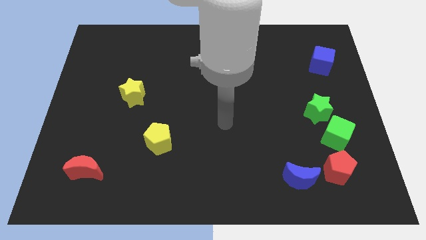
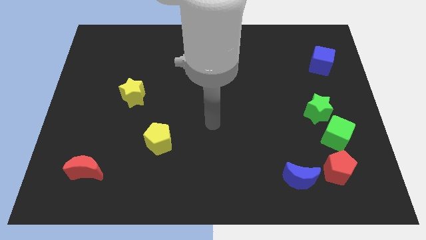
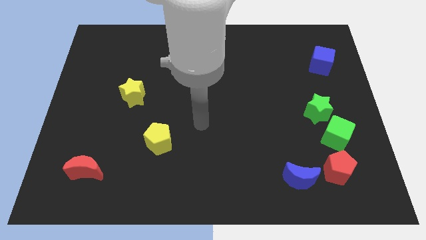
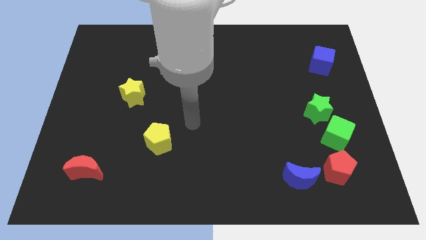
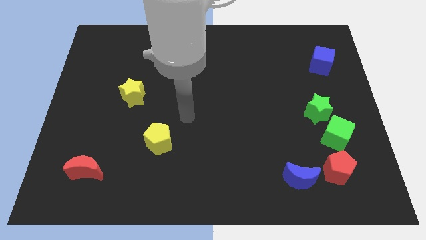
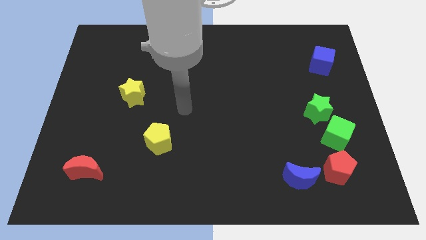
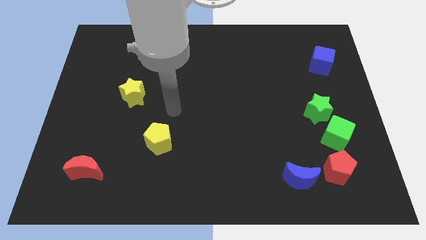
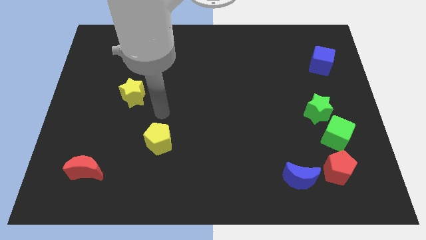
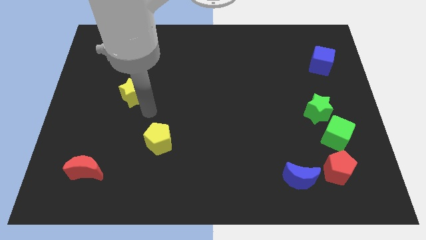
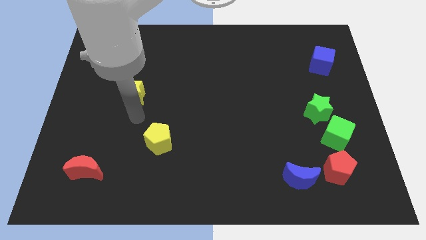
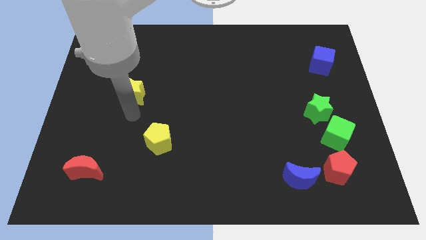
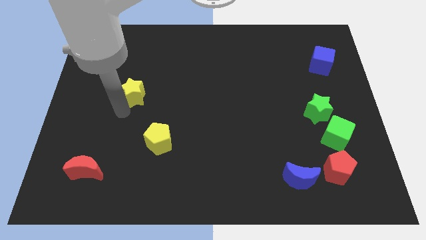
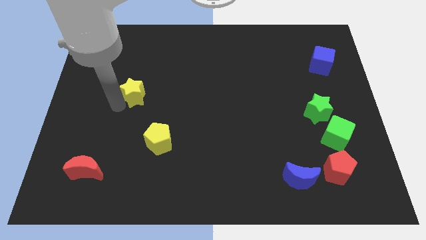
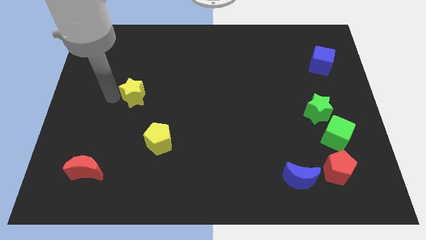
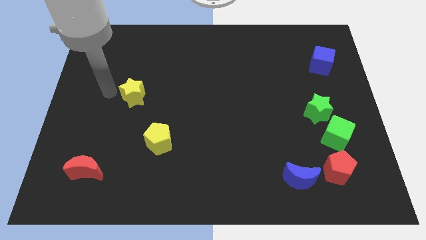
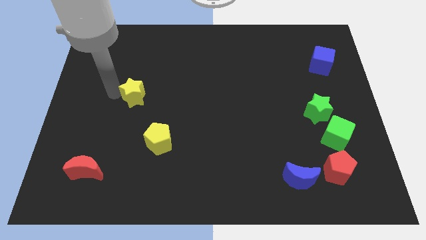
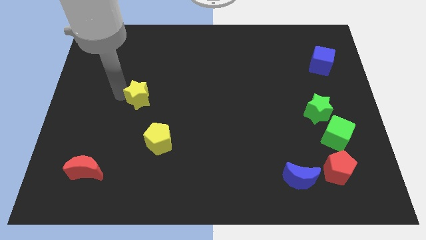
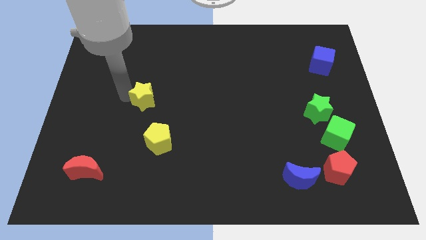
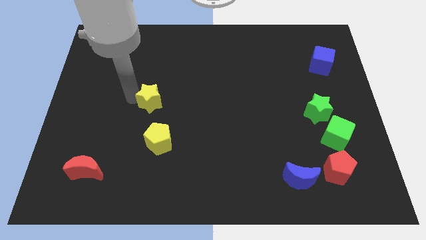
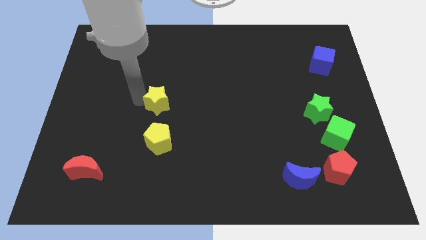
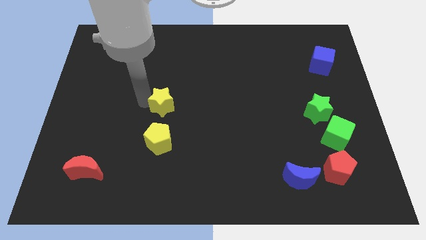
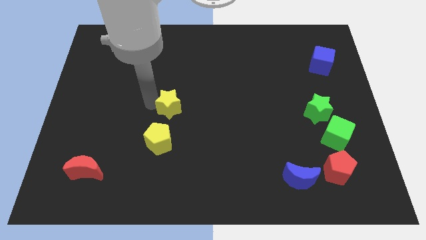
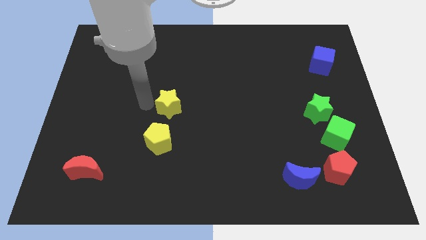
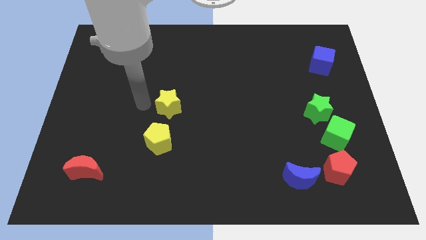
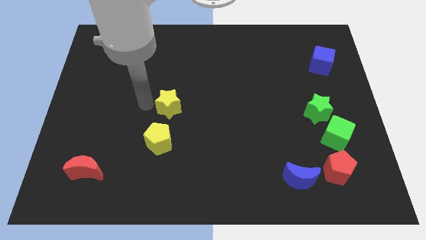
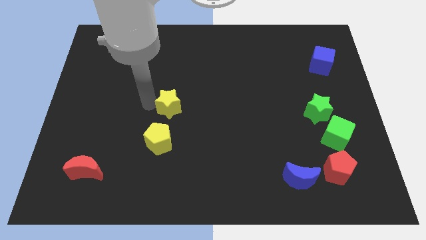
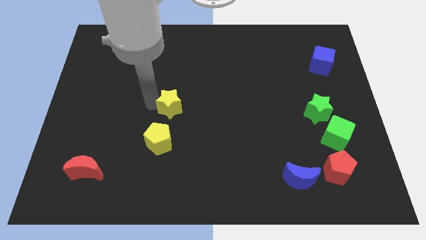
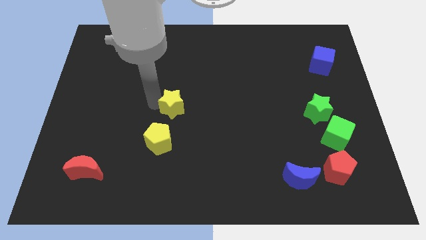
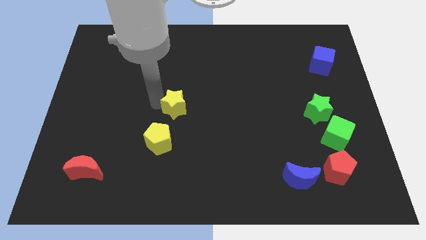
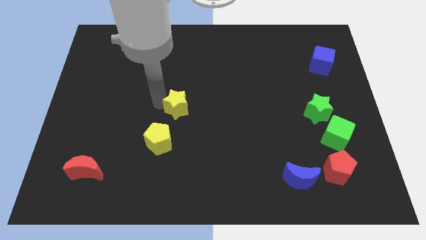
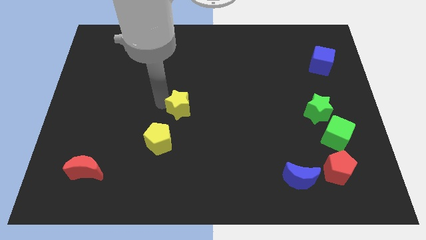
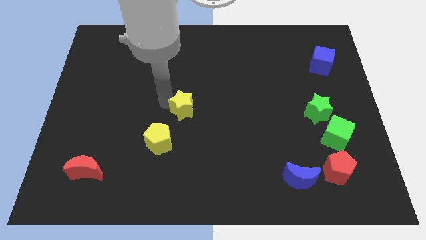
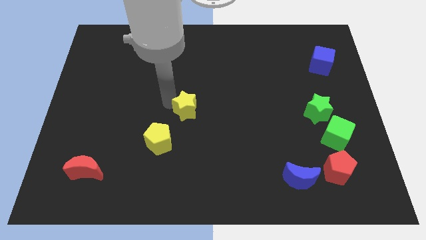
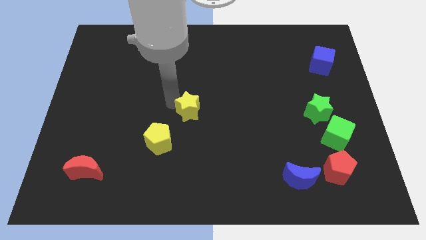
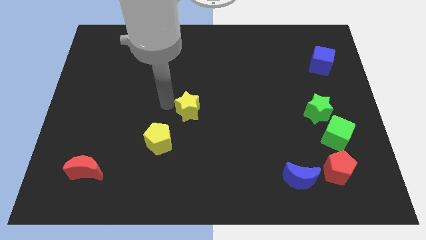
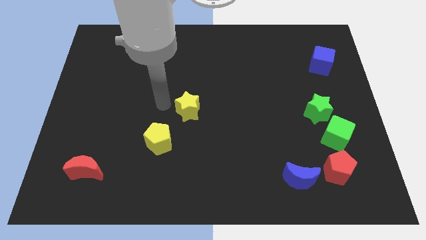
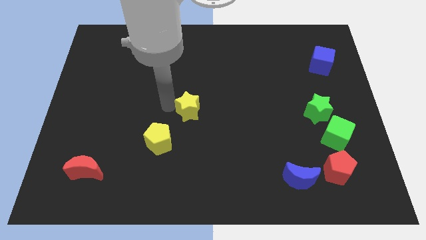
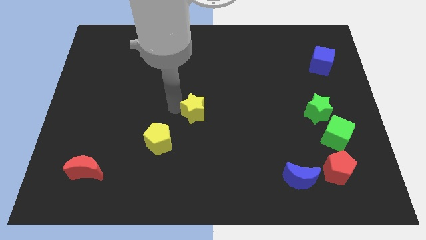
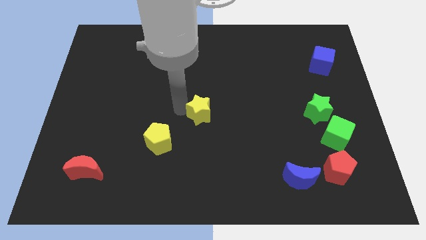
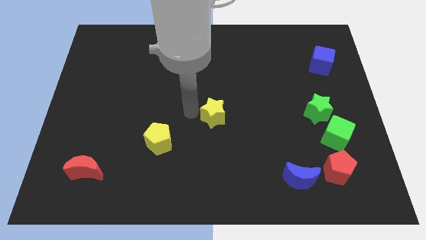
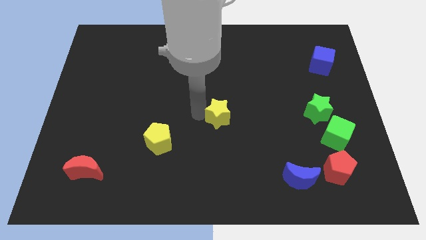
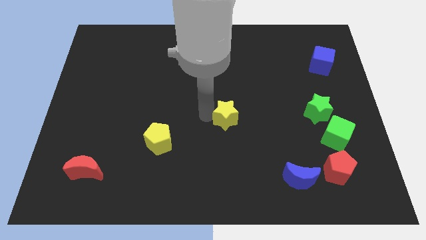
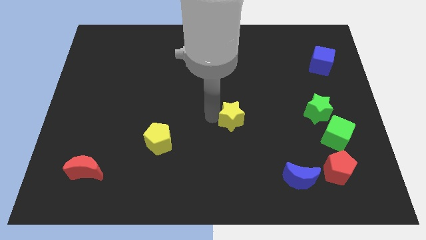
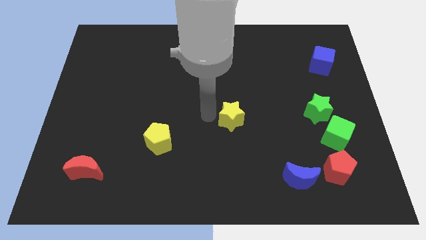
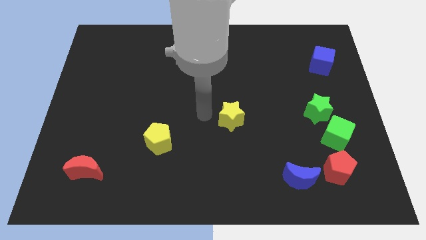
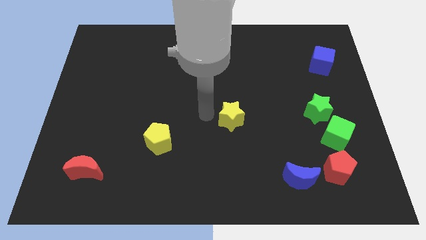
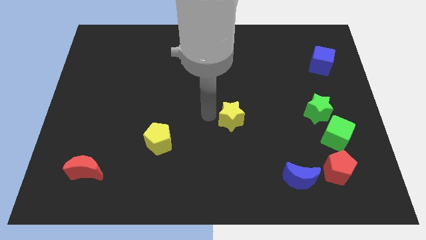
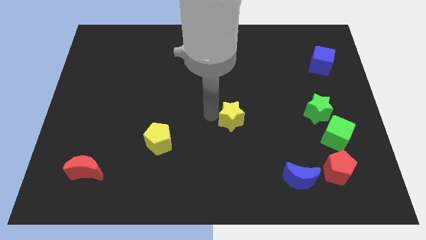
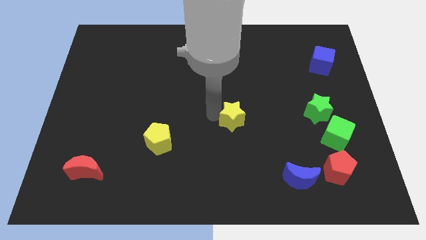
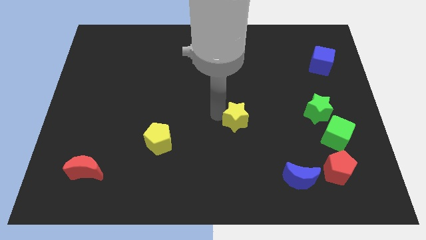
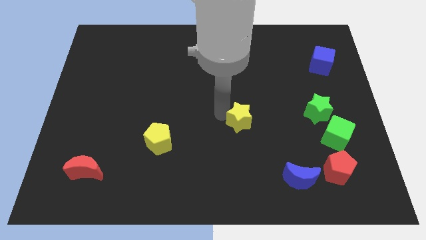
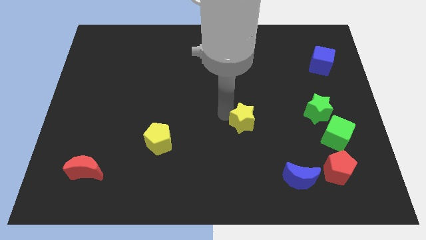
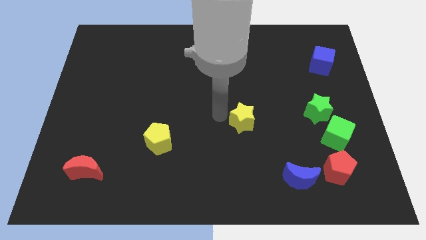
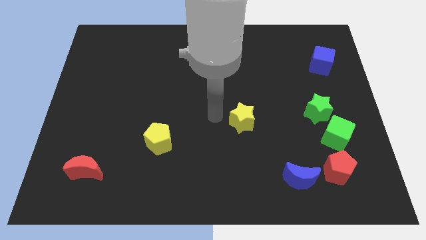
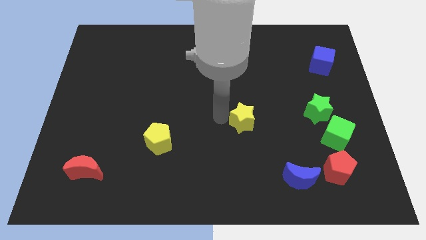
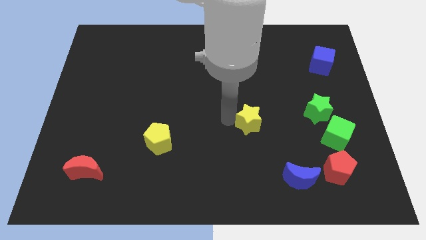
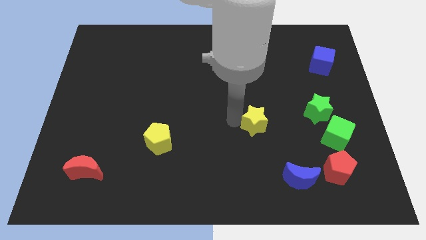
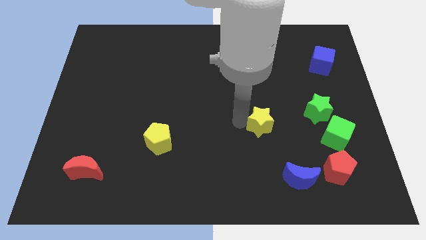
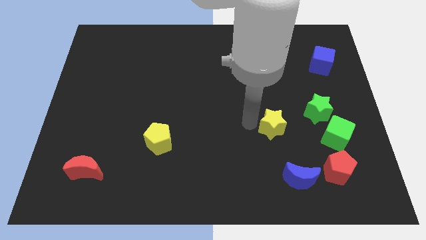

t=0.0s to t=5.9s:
push the yellow star above the blue moon

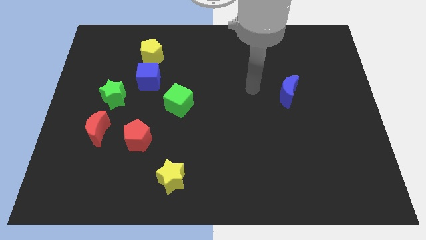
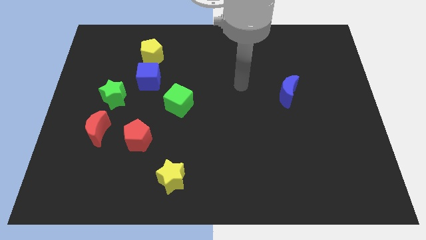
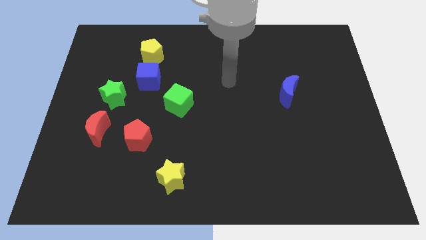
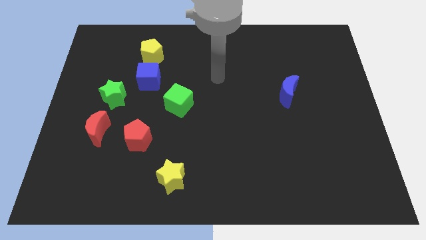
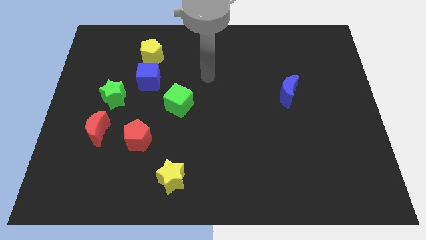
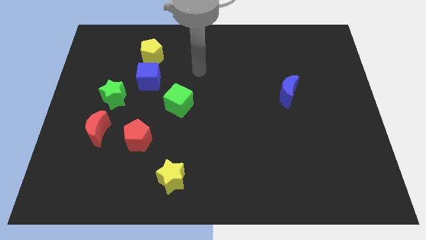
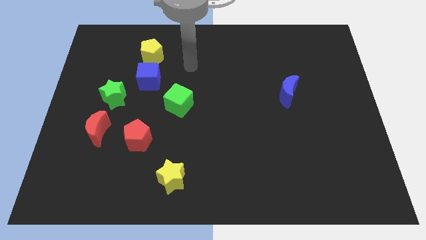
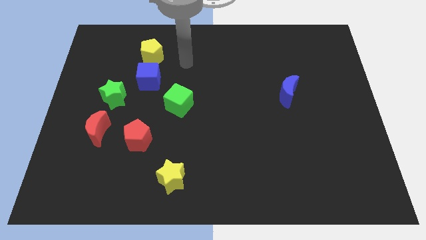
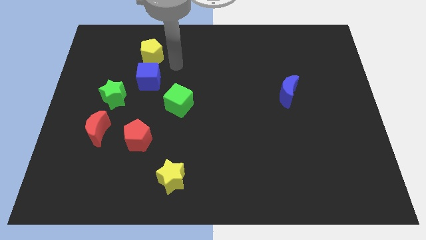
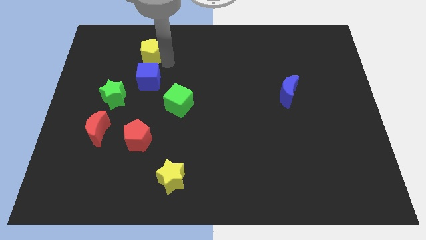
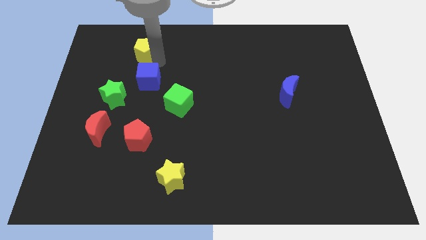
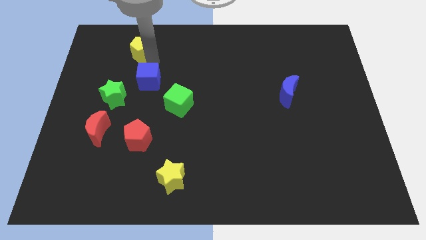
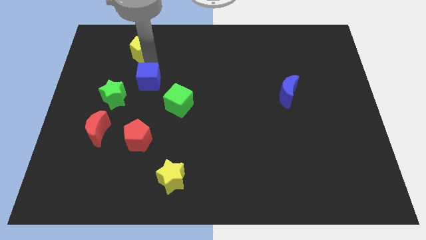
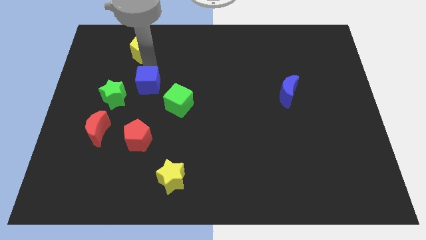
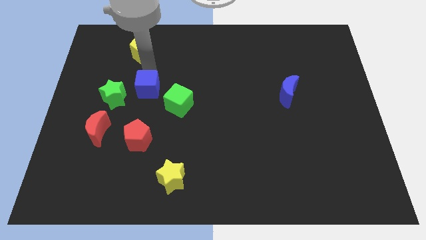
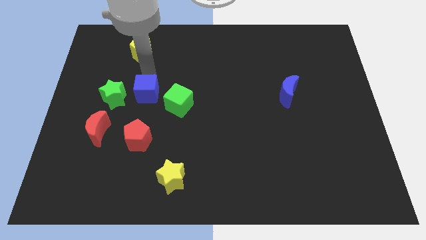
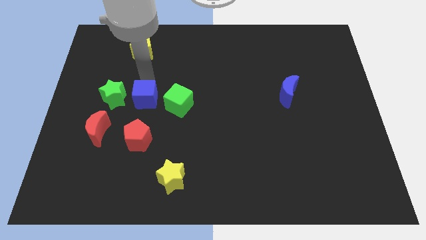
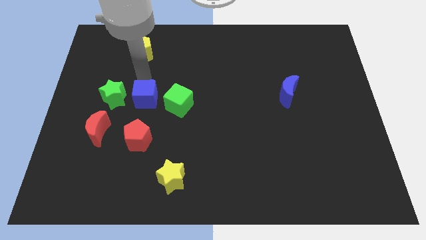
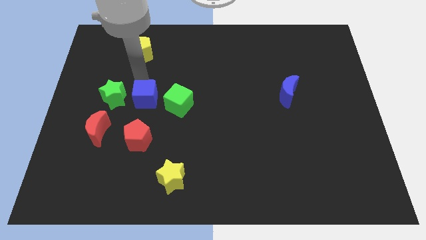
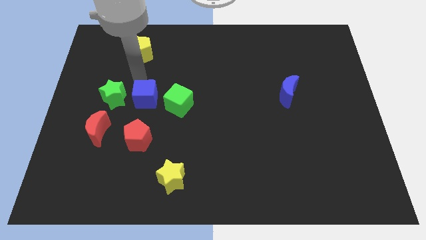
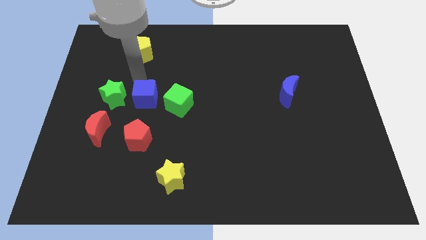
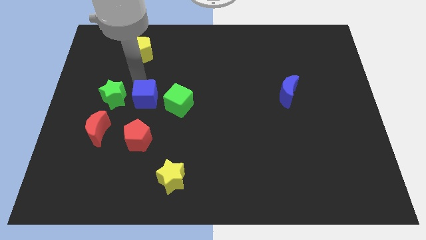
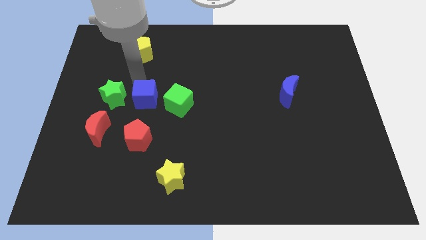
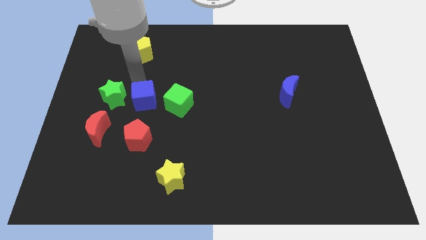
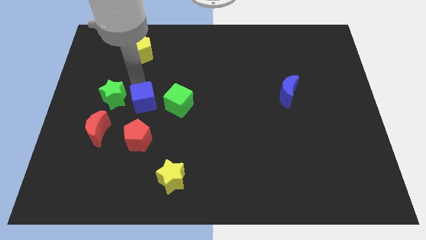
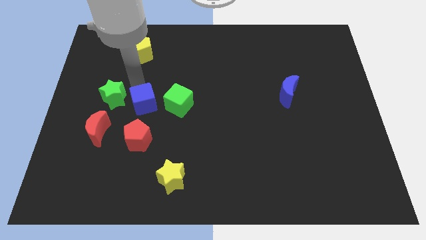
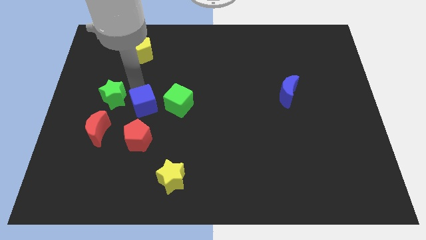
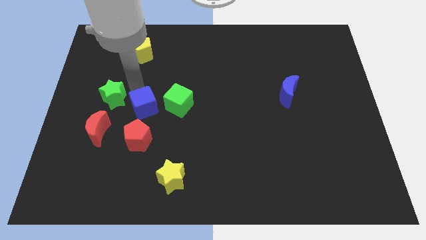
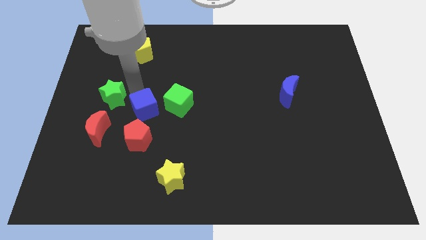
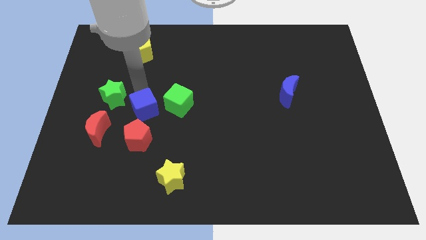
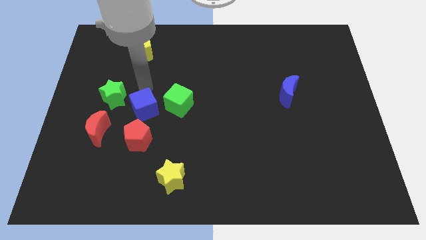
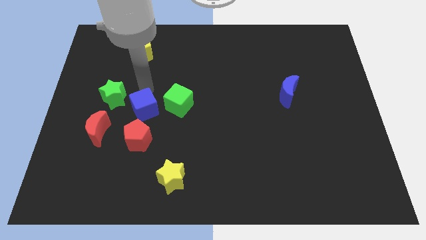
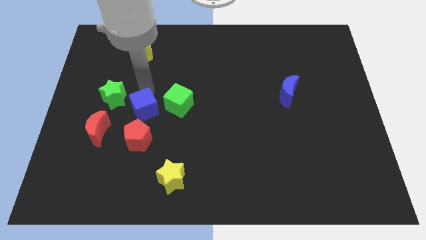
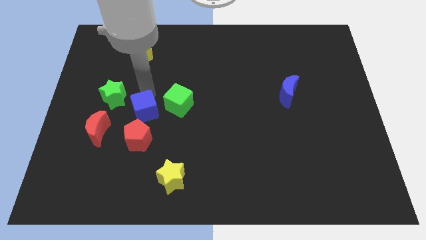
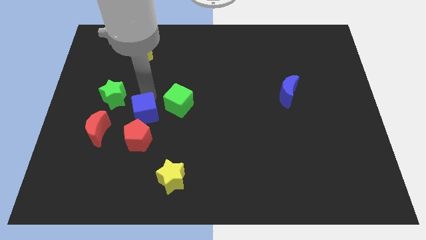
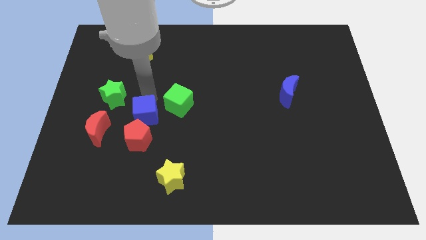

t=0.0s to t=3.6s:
put the blue cube right of the red moon
